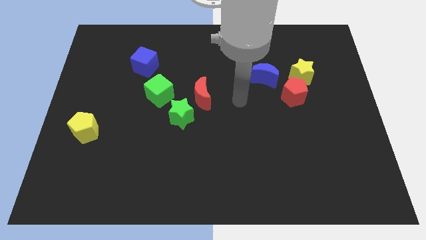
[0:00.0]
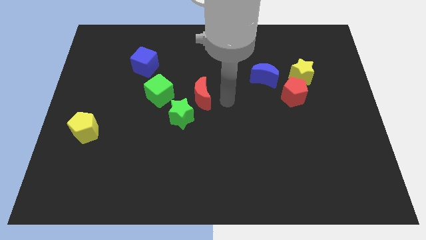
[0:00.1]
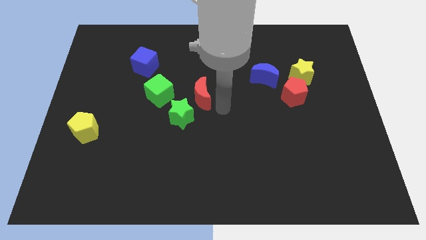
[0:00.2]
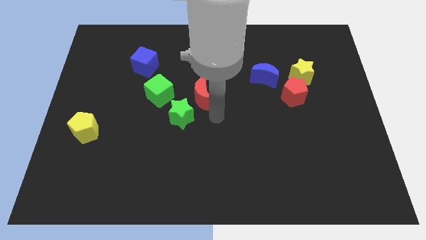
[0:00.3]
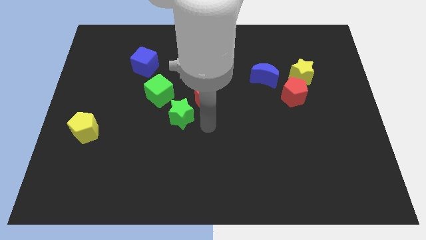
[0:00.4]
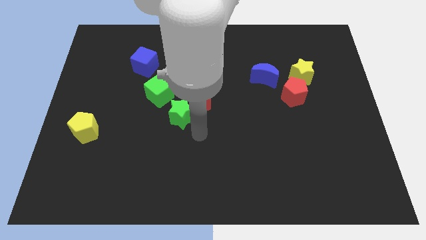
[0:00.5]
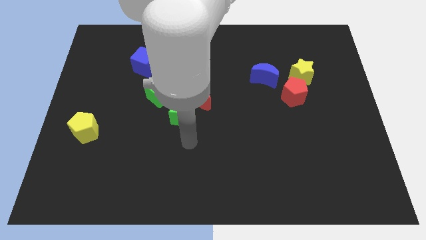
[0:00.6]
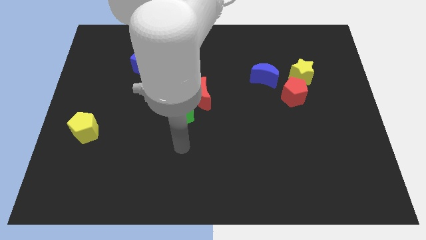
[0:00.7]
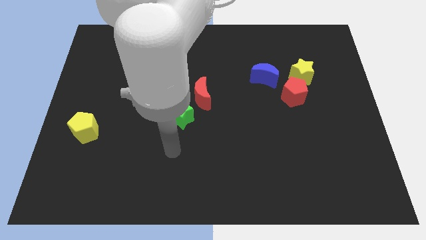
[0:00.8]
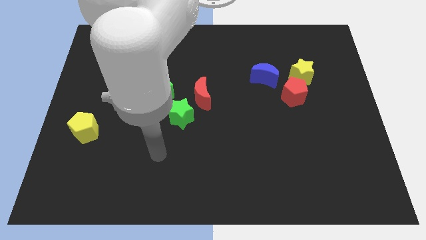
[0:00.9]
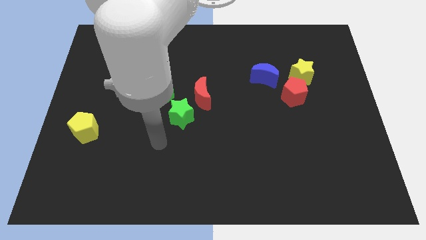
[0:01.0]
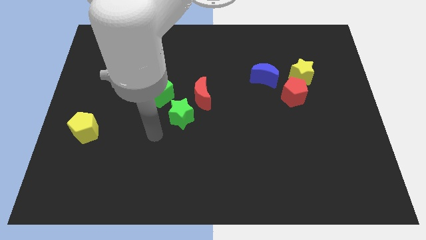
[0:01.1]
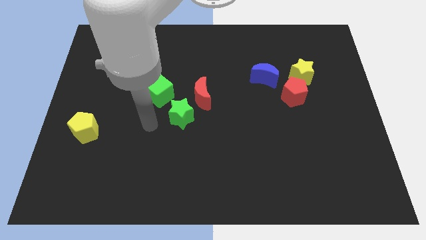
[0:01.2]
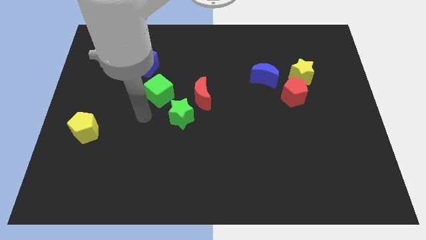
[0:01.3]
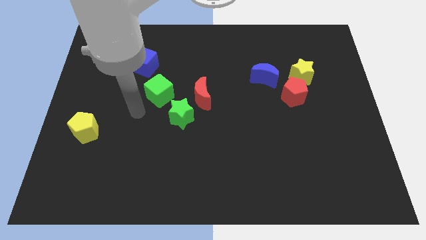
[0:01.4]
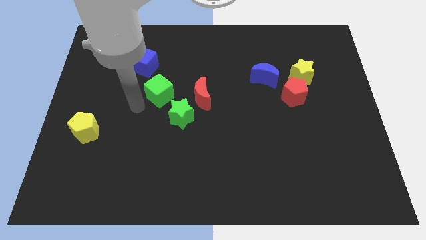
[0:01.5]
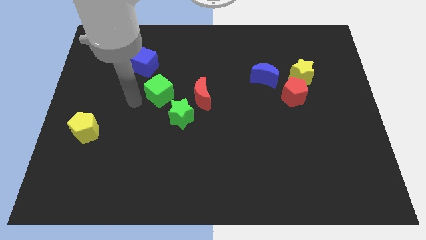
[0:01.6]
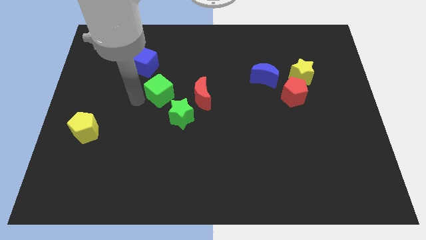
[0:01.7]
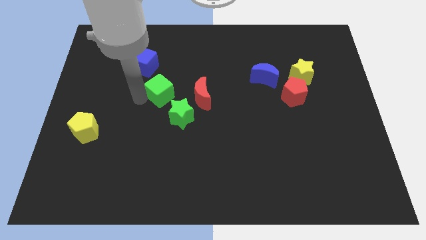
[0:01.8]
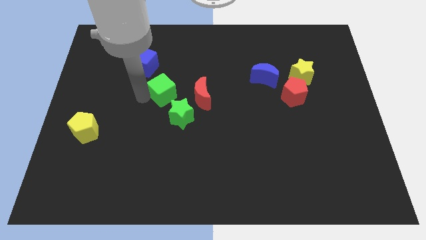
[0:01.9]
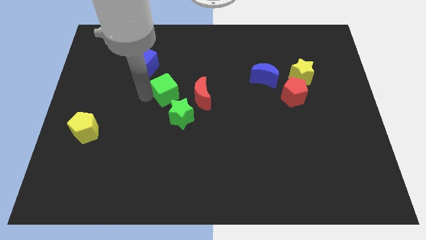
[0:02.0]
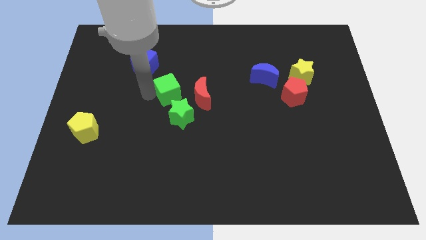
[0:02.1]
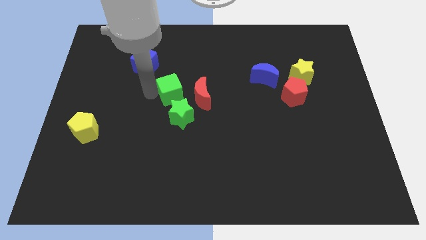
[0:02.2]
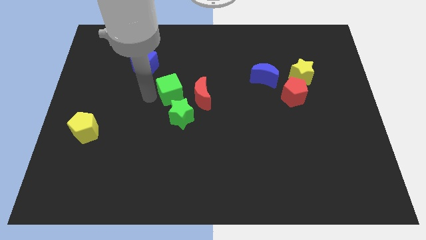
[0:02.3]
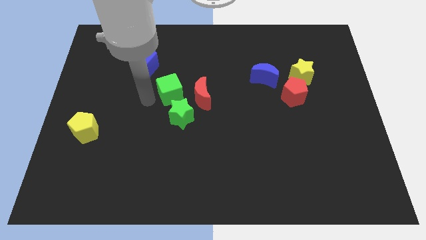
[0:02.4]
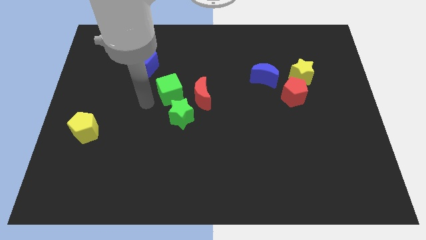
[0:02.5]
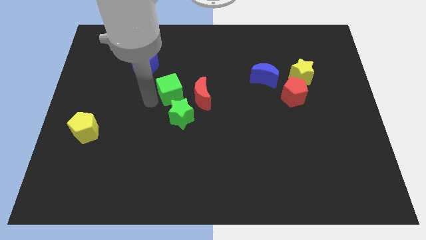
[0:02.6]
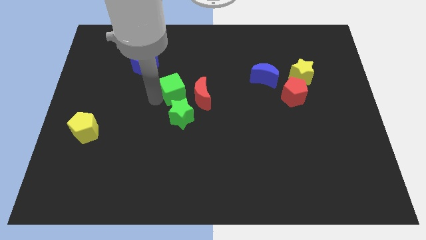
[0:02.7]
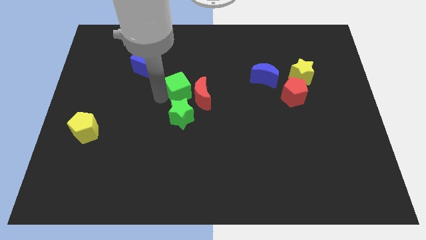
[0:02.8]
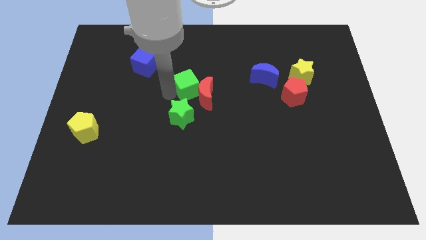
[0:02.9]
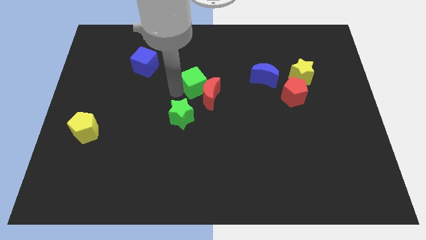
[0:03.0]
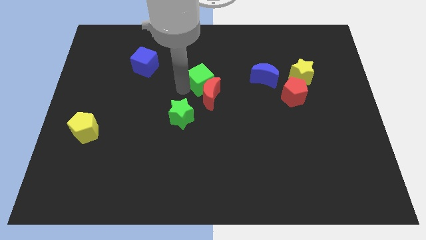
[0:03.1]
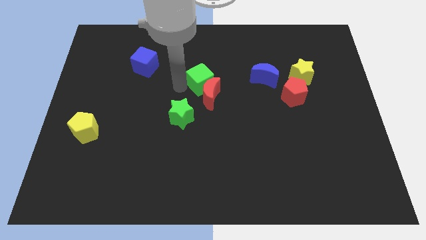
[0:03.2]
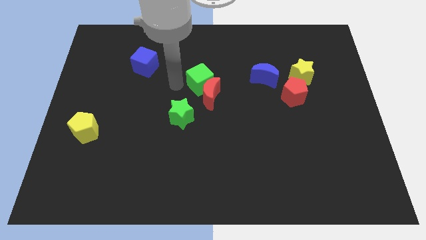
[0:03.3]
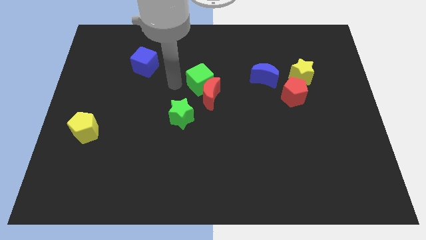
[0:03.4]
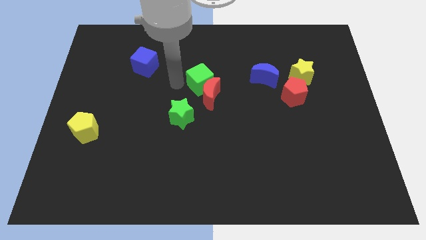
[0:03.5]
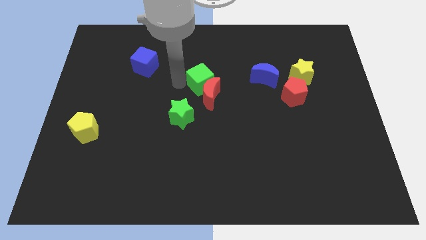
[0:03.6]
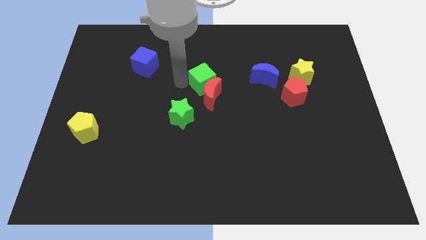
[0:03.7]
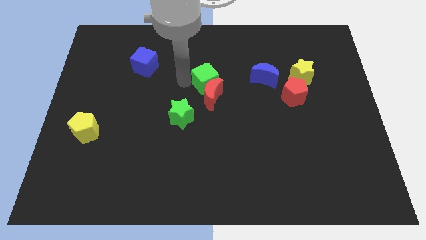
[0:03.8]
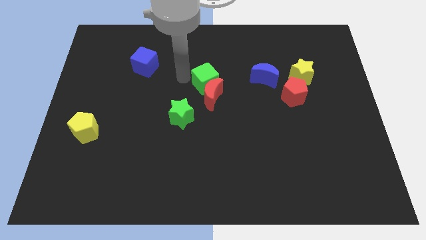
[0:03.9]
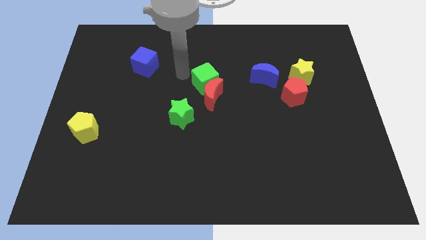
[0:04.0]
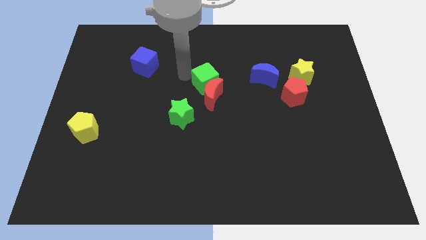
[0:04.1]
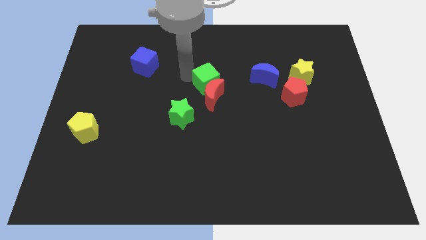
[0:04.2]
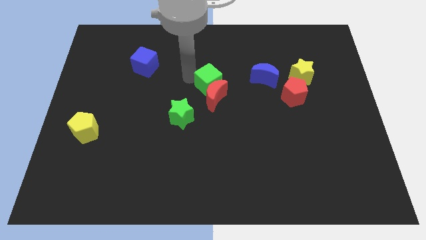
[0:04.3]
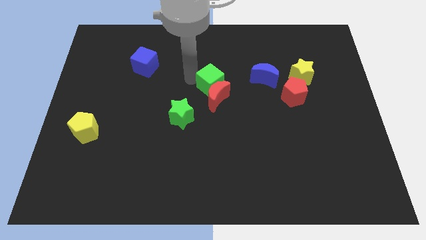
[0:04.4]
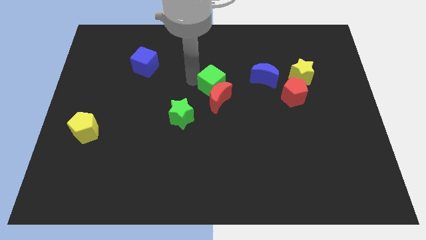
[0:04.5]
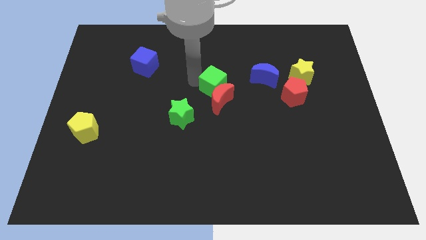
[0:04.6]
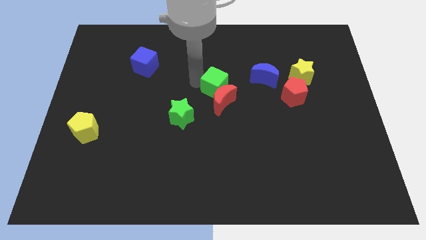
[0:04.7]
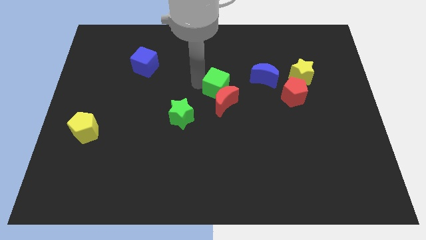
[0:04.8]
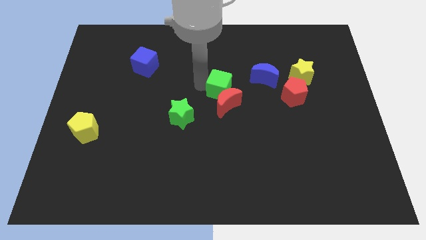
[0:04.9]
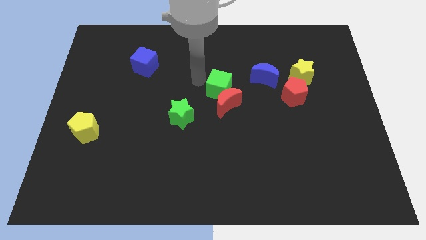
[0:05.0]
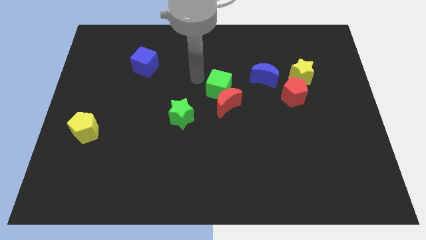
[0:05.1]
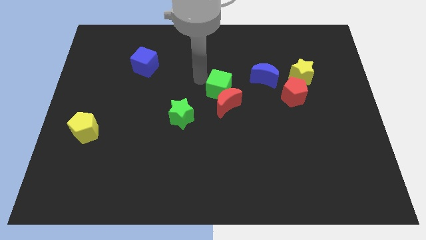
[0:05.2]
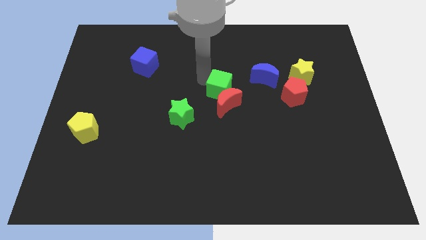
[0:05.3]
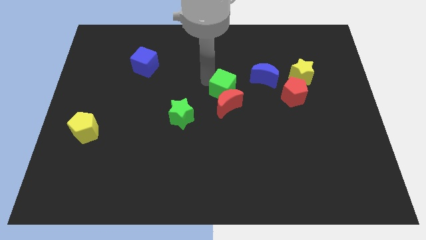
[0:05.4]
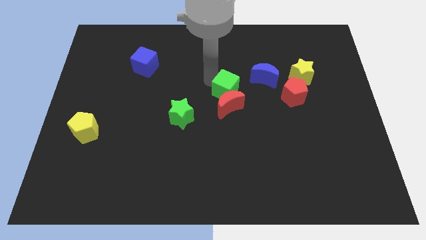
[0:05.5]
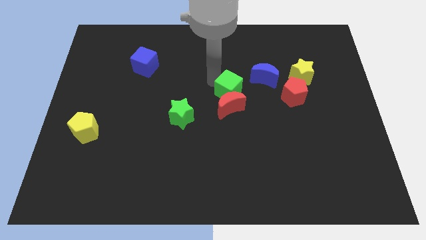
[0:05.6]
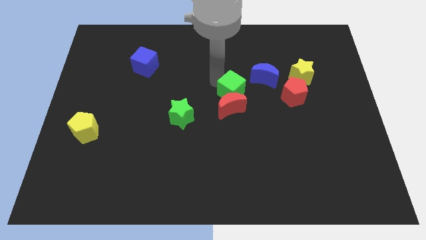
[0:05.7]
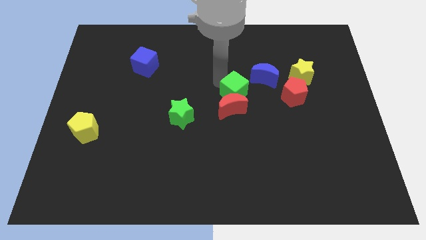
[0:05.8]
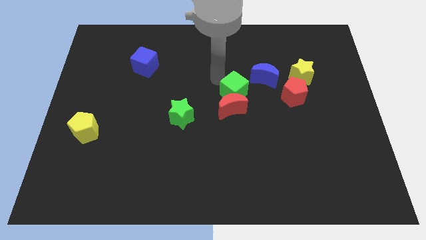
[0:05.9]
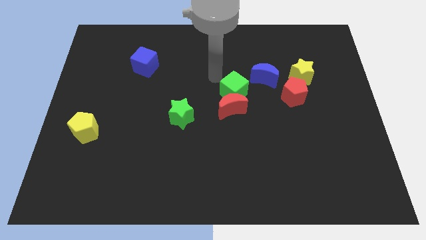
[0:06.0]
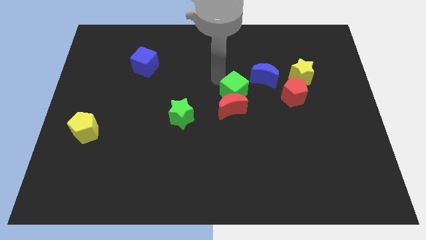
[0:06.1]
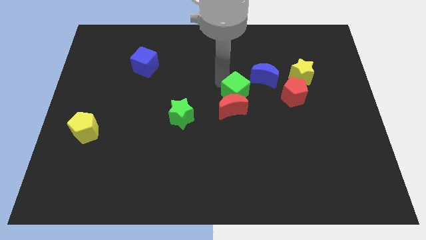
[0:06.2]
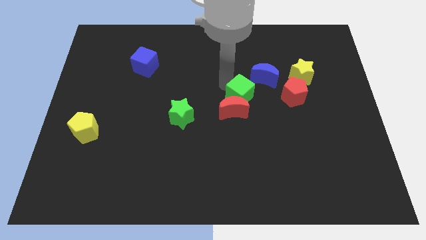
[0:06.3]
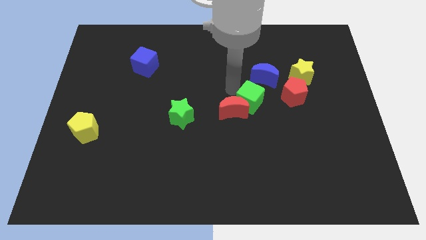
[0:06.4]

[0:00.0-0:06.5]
put the green cube below the blue moon
